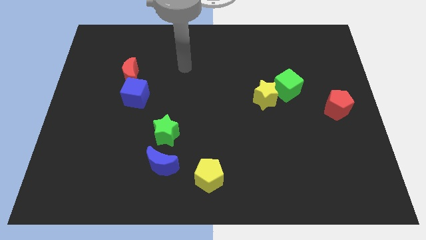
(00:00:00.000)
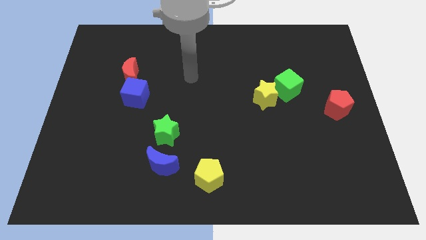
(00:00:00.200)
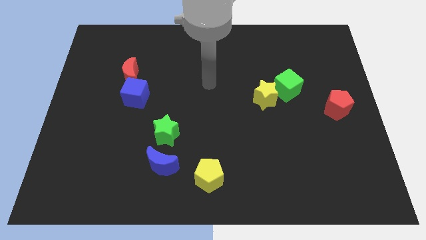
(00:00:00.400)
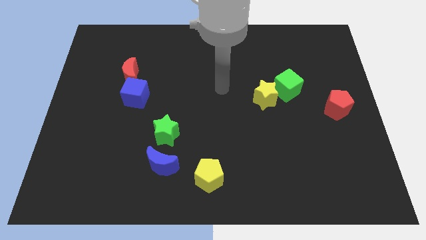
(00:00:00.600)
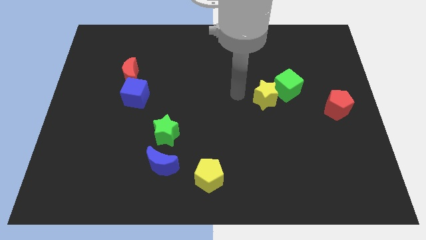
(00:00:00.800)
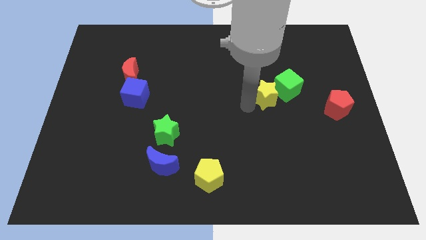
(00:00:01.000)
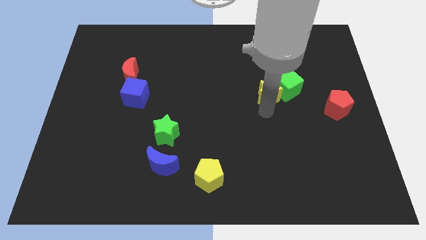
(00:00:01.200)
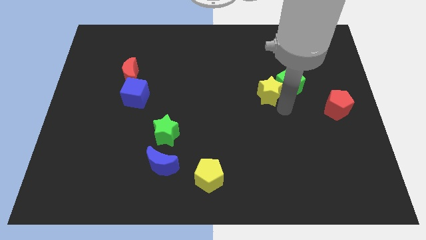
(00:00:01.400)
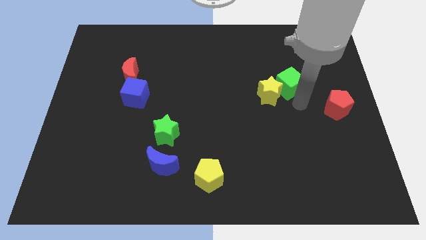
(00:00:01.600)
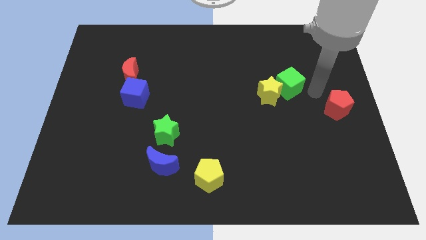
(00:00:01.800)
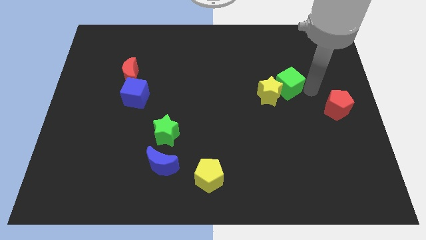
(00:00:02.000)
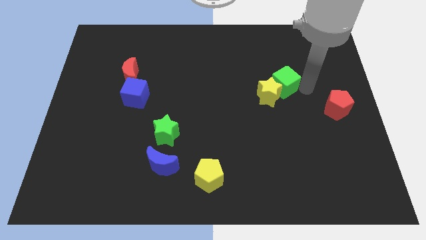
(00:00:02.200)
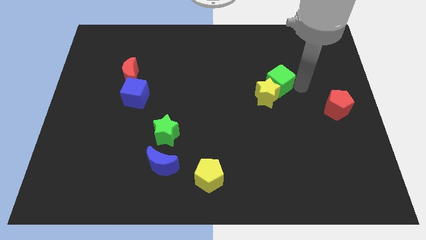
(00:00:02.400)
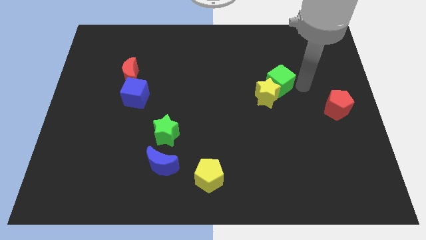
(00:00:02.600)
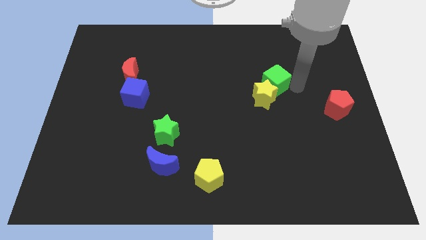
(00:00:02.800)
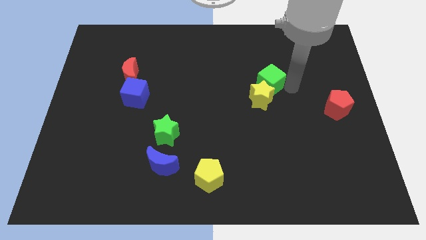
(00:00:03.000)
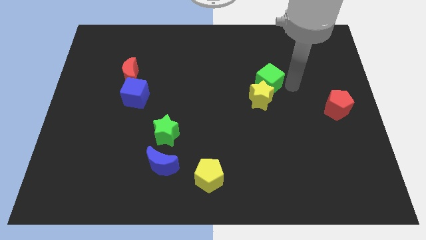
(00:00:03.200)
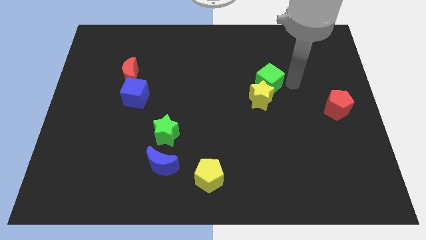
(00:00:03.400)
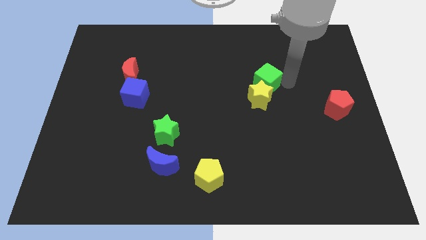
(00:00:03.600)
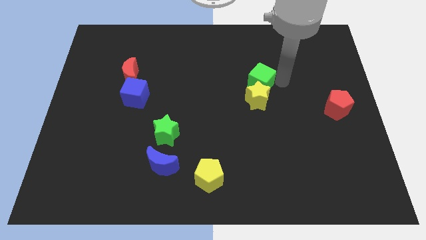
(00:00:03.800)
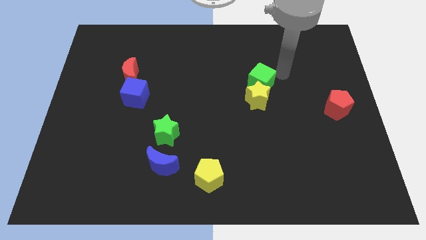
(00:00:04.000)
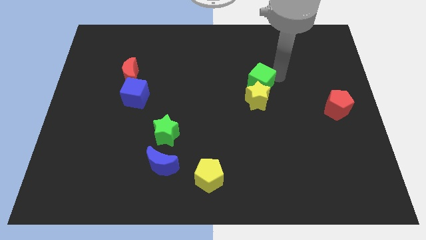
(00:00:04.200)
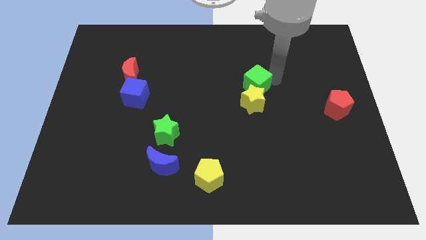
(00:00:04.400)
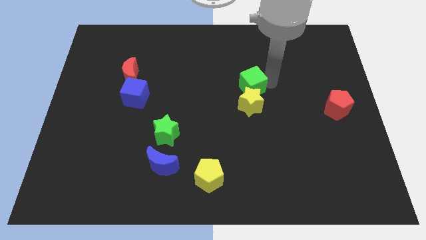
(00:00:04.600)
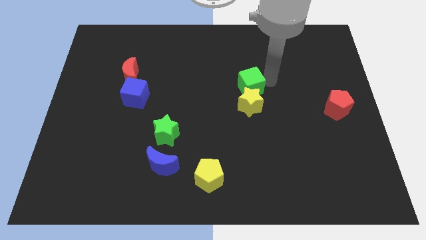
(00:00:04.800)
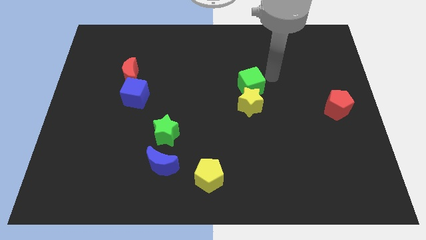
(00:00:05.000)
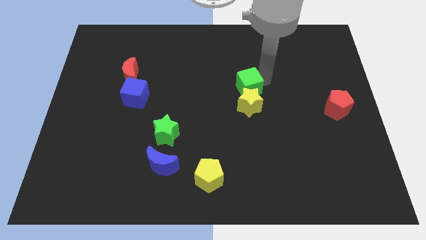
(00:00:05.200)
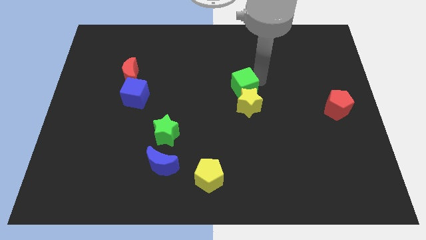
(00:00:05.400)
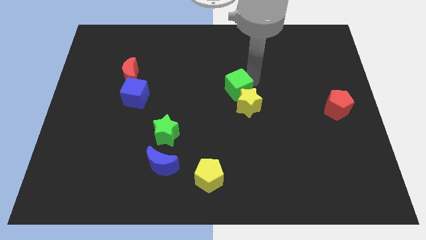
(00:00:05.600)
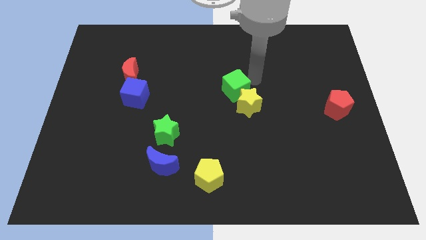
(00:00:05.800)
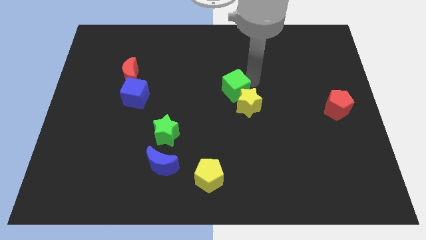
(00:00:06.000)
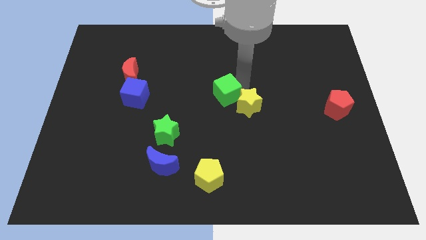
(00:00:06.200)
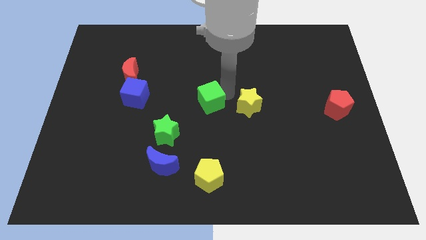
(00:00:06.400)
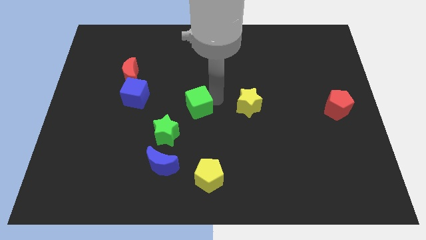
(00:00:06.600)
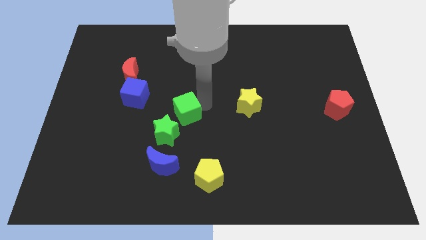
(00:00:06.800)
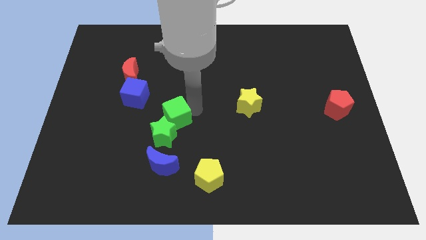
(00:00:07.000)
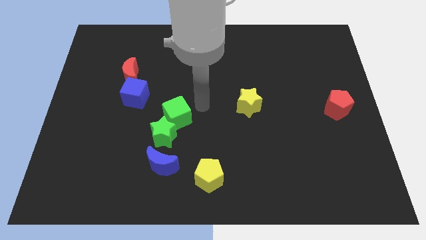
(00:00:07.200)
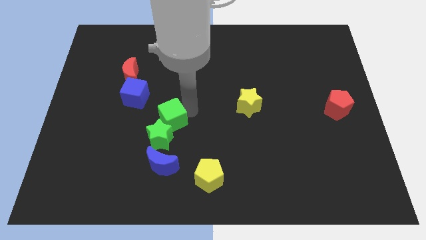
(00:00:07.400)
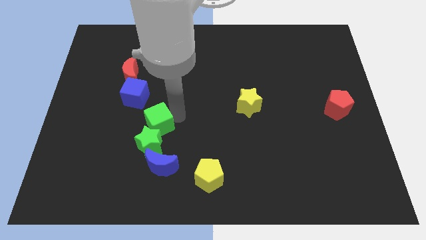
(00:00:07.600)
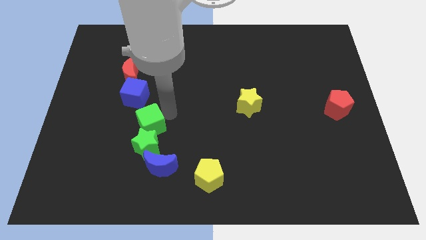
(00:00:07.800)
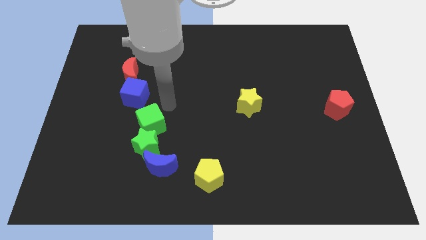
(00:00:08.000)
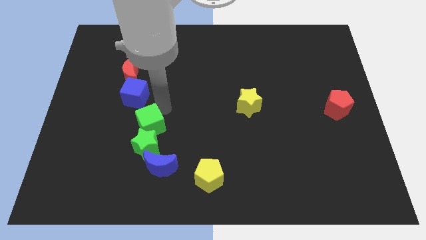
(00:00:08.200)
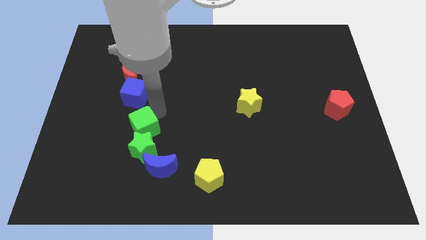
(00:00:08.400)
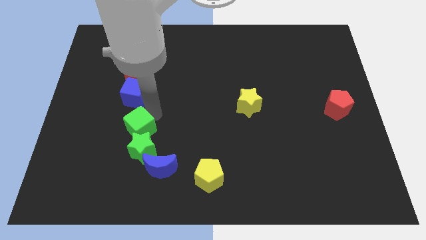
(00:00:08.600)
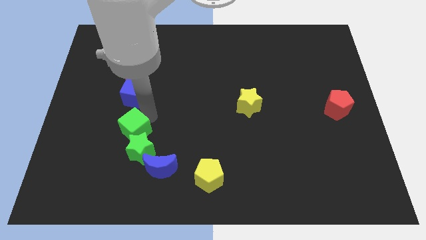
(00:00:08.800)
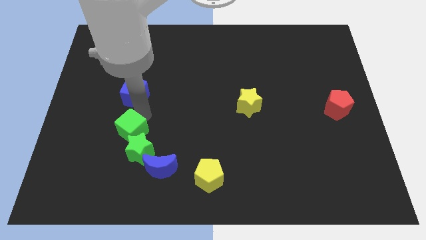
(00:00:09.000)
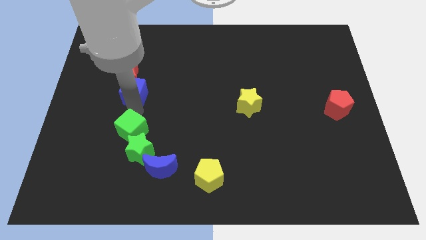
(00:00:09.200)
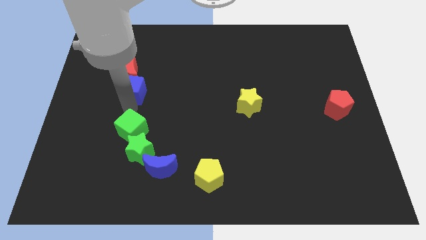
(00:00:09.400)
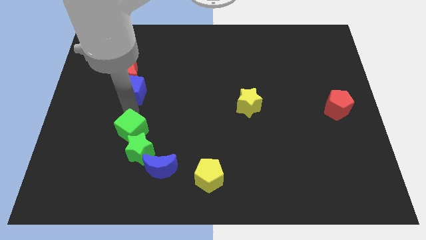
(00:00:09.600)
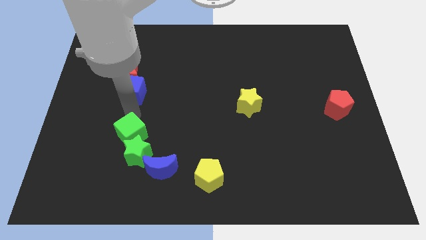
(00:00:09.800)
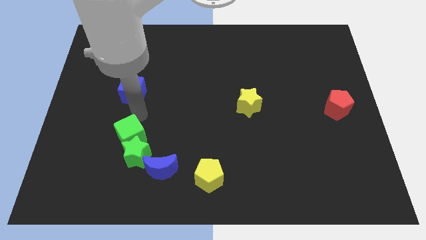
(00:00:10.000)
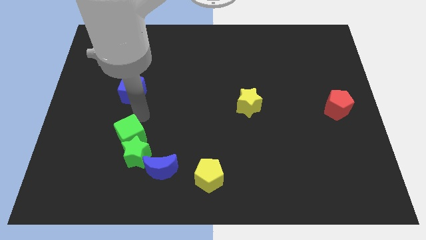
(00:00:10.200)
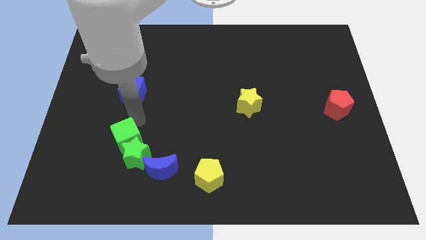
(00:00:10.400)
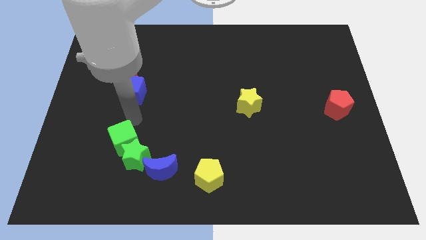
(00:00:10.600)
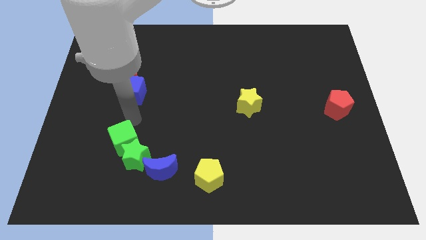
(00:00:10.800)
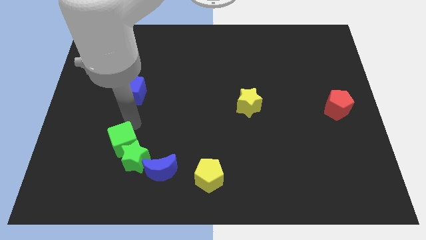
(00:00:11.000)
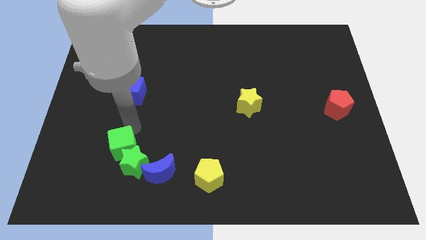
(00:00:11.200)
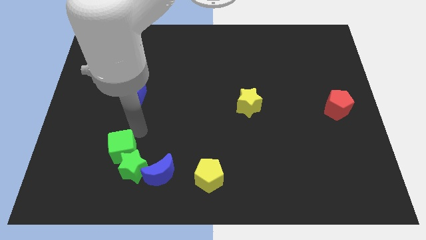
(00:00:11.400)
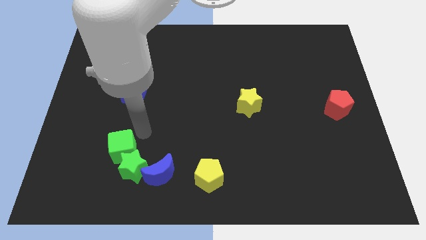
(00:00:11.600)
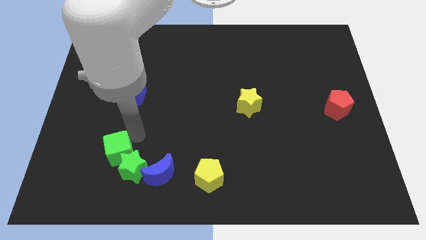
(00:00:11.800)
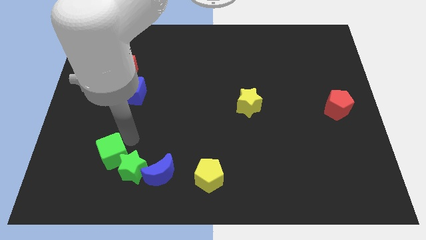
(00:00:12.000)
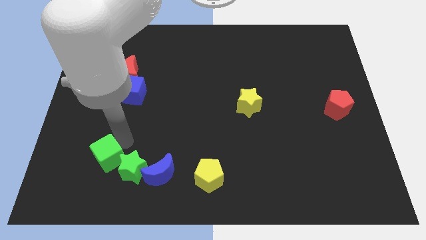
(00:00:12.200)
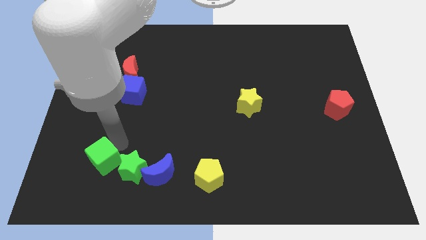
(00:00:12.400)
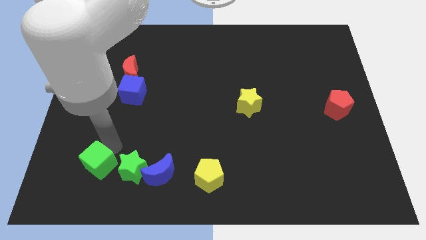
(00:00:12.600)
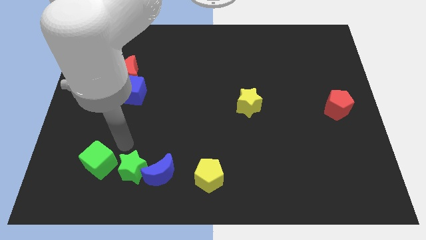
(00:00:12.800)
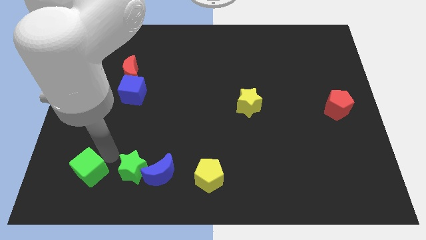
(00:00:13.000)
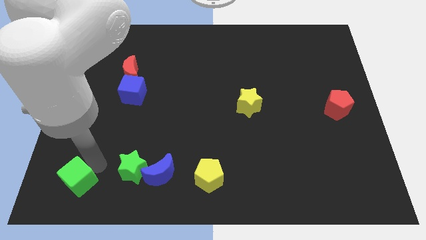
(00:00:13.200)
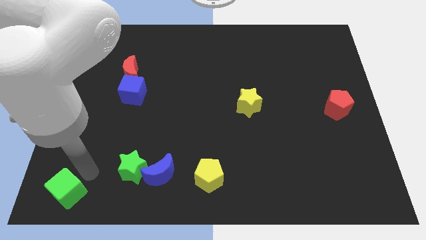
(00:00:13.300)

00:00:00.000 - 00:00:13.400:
slide the green cube to the bottom left of the board
